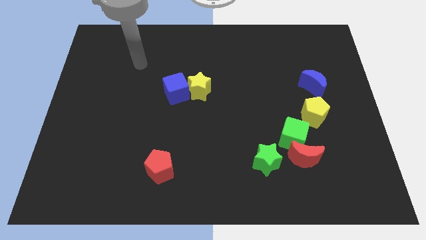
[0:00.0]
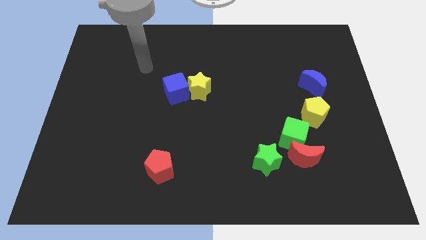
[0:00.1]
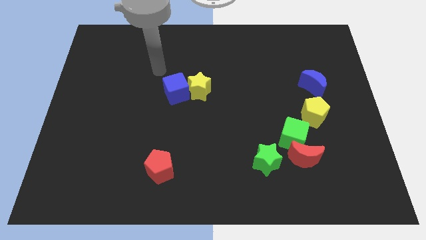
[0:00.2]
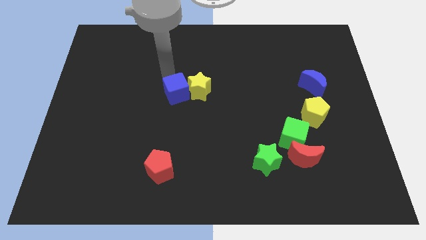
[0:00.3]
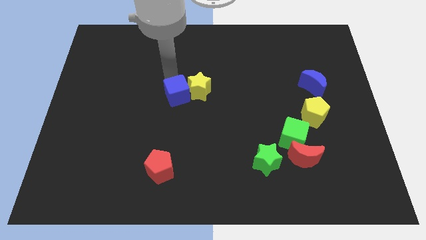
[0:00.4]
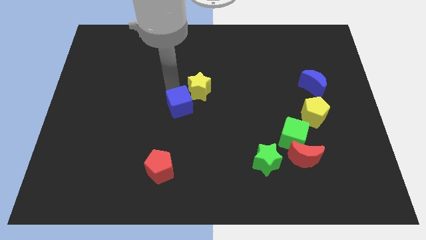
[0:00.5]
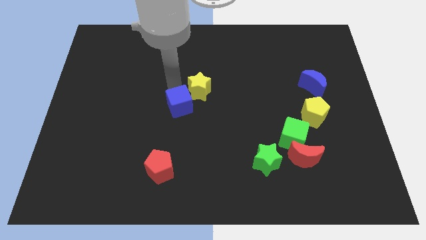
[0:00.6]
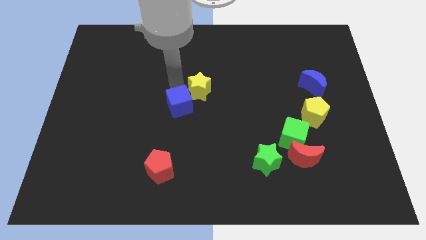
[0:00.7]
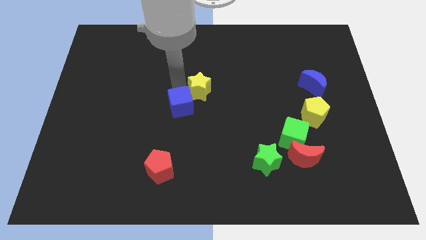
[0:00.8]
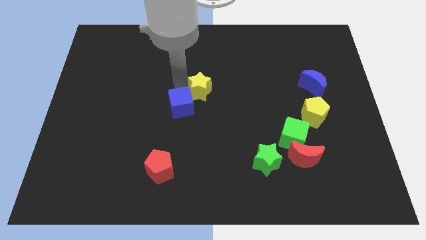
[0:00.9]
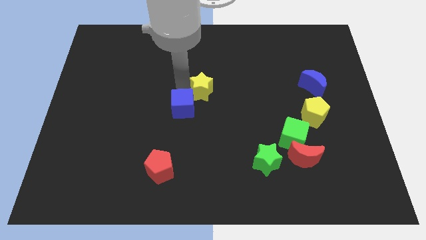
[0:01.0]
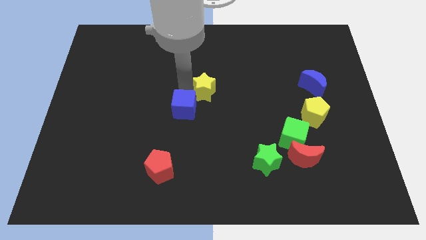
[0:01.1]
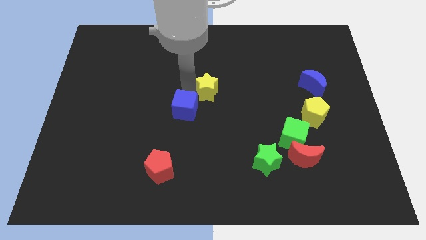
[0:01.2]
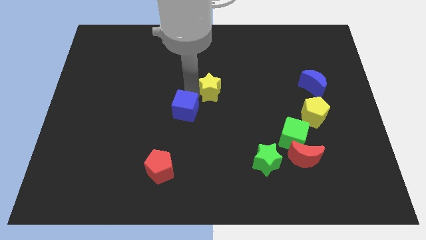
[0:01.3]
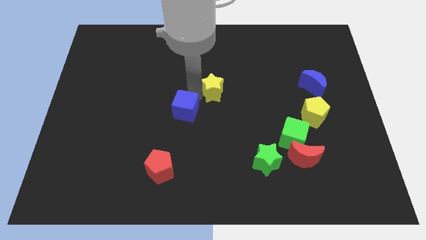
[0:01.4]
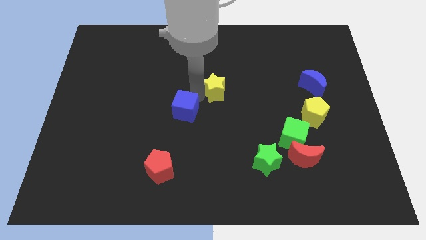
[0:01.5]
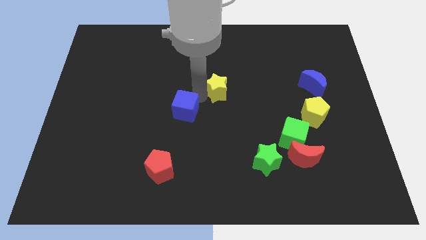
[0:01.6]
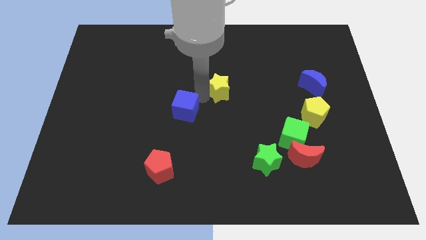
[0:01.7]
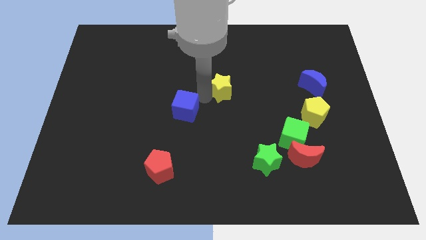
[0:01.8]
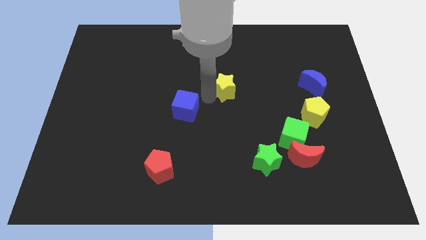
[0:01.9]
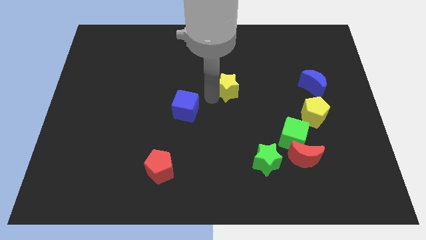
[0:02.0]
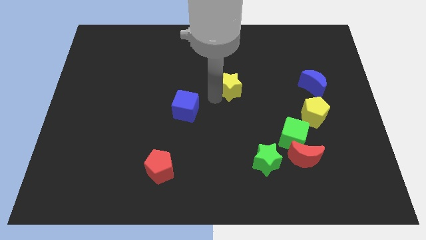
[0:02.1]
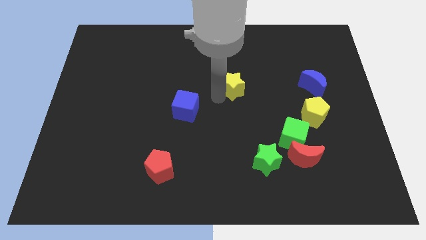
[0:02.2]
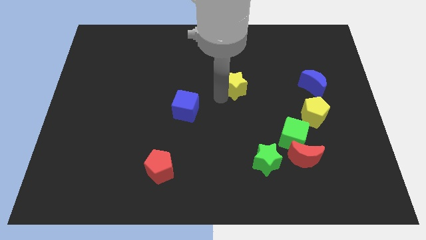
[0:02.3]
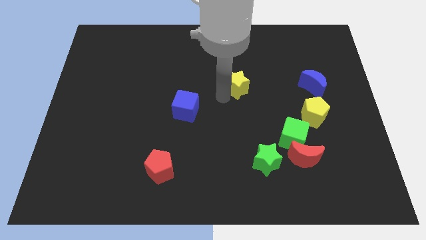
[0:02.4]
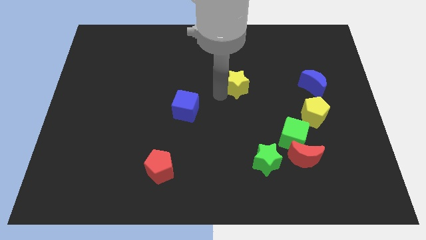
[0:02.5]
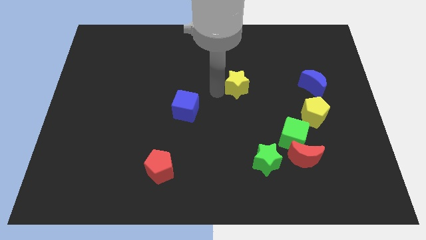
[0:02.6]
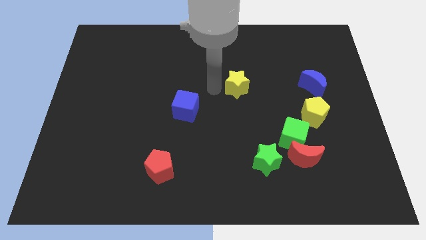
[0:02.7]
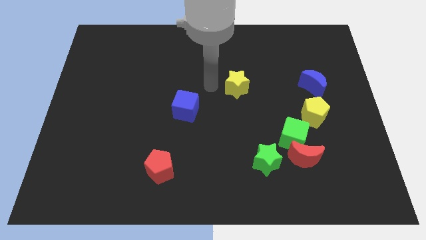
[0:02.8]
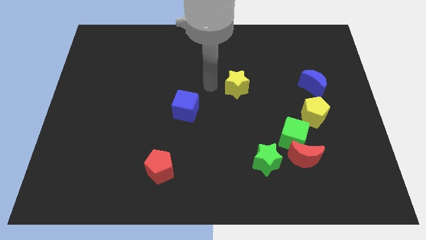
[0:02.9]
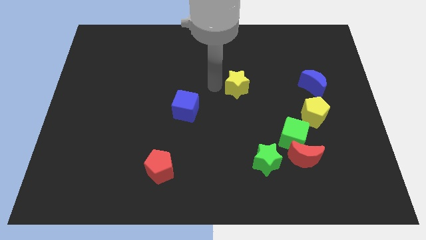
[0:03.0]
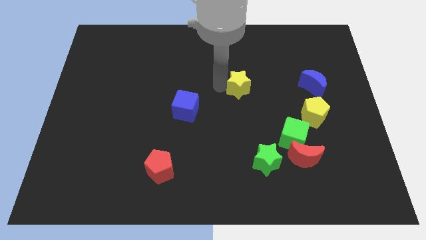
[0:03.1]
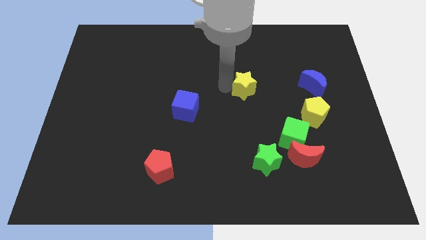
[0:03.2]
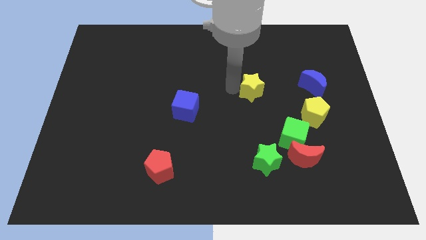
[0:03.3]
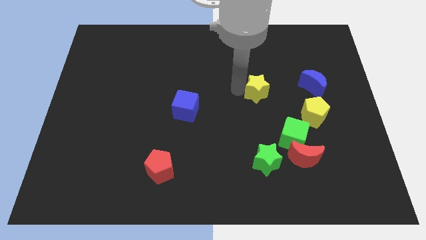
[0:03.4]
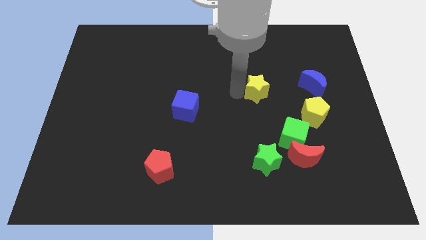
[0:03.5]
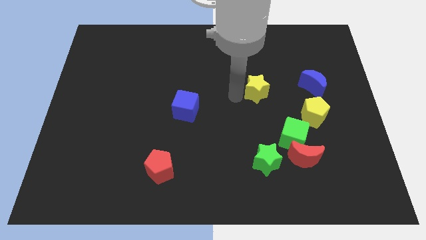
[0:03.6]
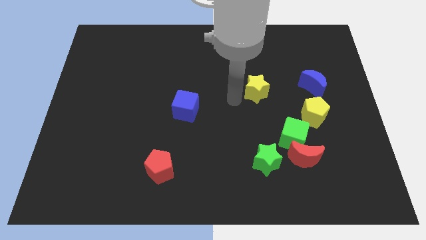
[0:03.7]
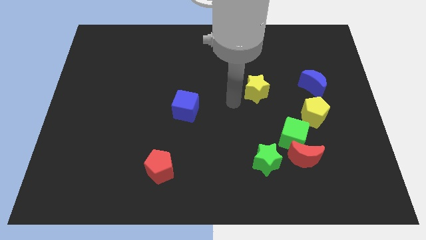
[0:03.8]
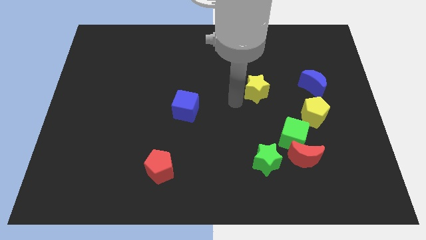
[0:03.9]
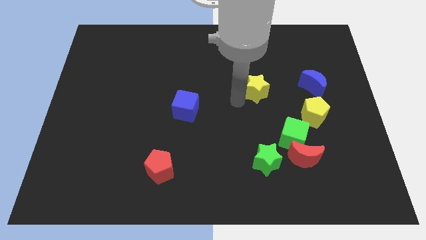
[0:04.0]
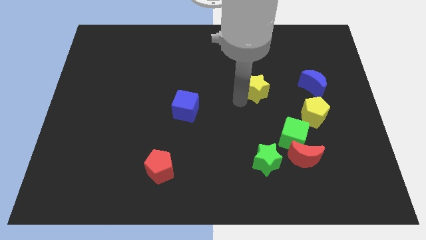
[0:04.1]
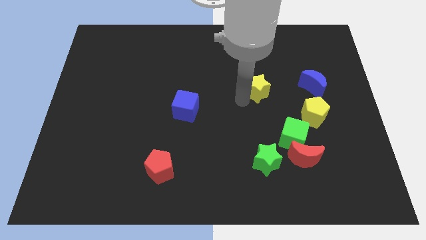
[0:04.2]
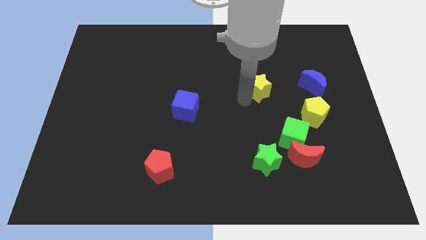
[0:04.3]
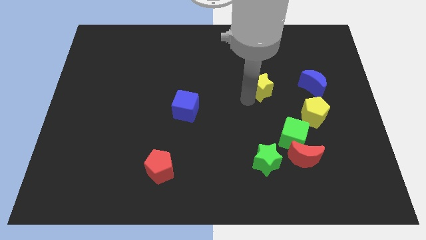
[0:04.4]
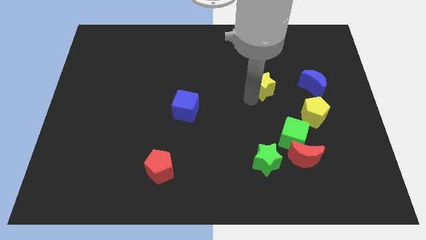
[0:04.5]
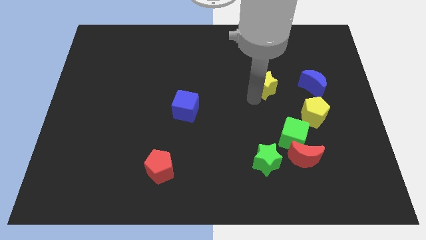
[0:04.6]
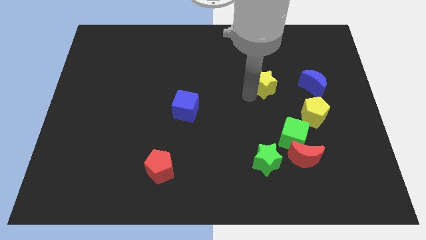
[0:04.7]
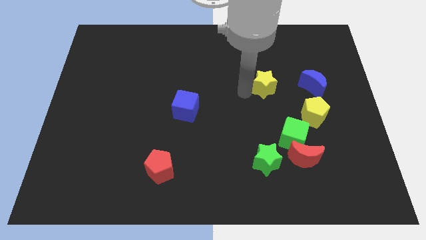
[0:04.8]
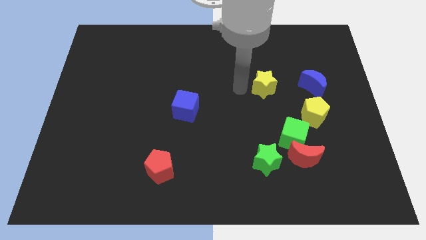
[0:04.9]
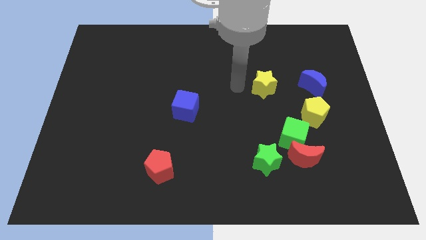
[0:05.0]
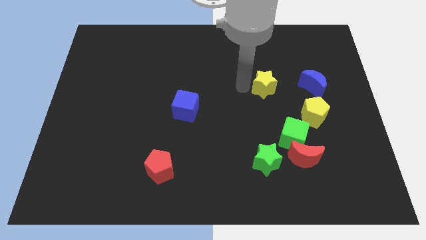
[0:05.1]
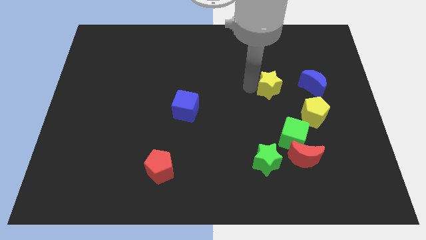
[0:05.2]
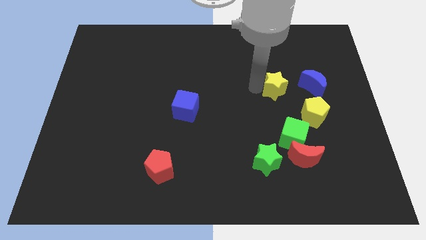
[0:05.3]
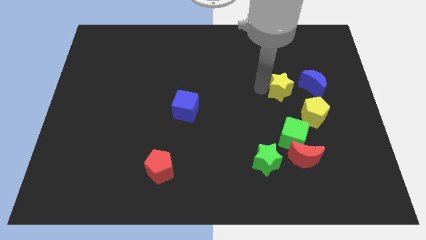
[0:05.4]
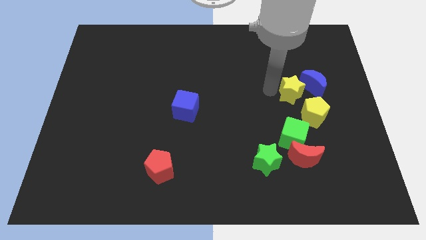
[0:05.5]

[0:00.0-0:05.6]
slide the yellow star towards the blue moon

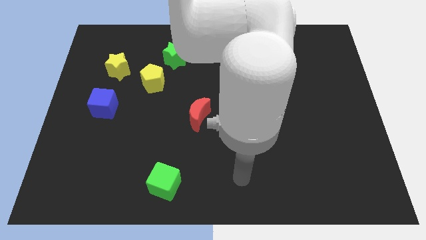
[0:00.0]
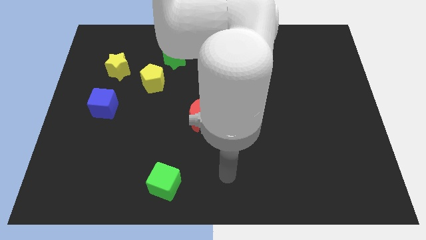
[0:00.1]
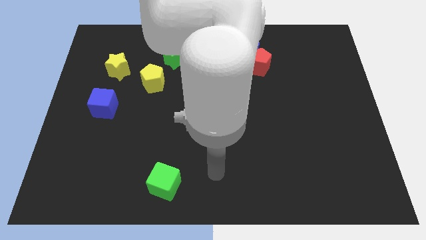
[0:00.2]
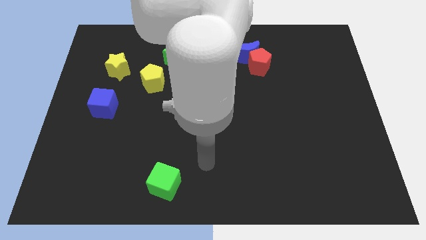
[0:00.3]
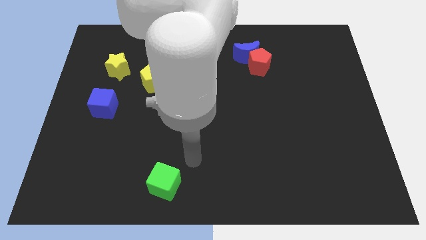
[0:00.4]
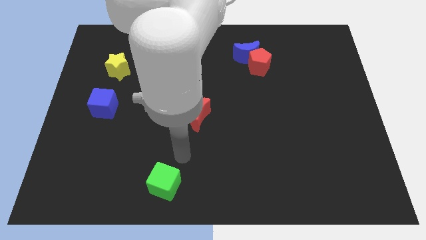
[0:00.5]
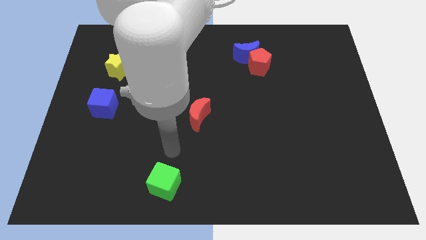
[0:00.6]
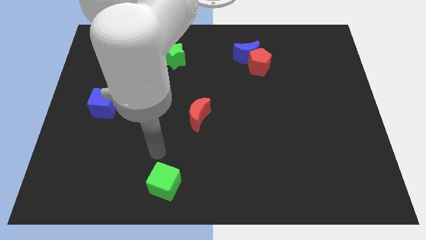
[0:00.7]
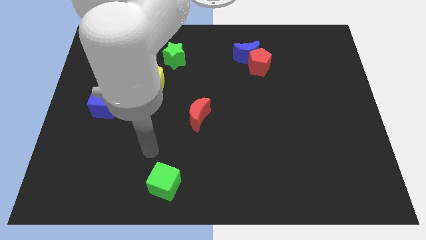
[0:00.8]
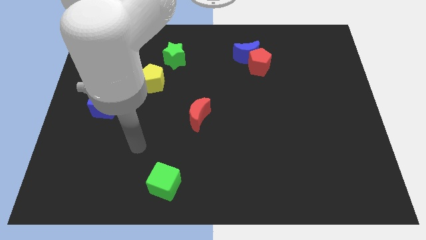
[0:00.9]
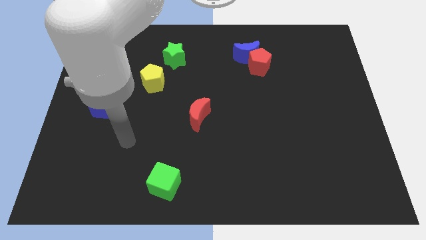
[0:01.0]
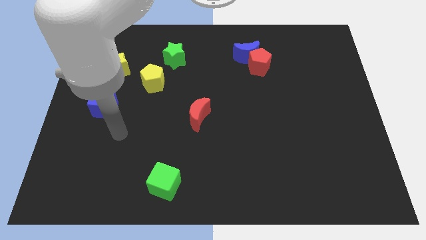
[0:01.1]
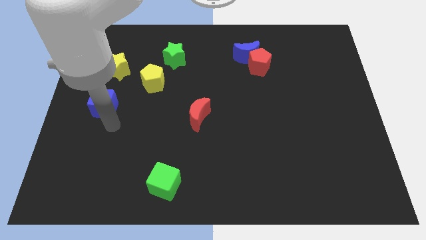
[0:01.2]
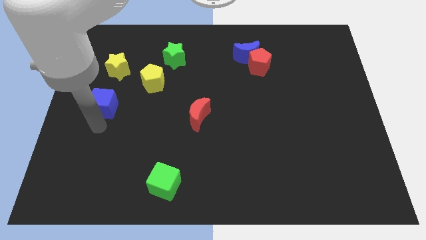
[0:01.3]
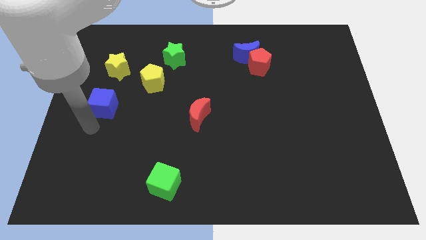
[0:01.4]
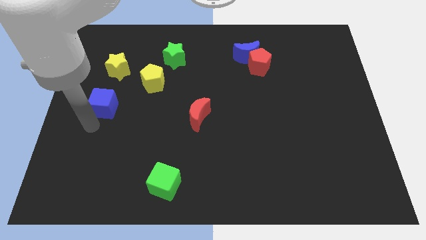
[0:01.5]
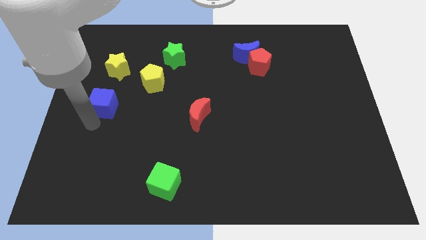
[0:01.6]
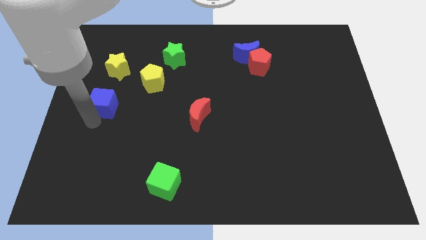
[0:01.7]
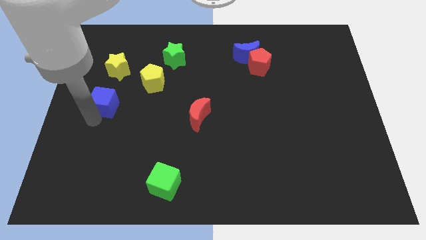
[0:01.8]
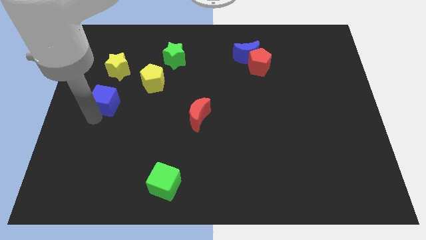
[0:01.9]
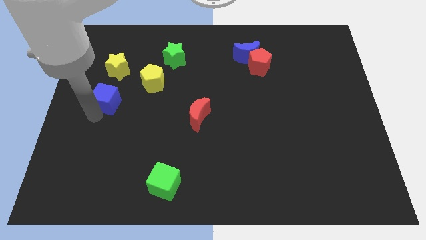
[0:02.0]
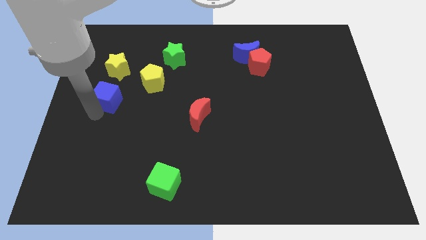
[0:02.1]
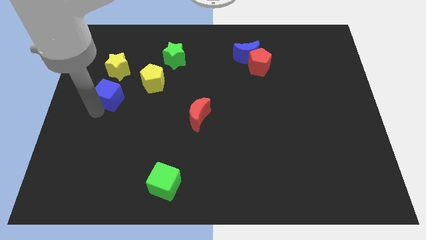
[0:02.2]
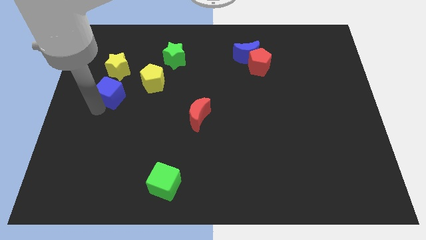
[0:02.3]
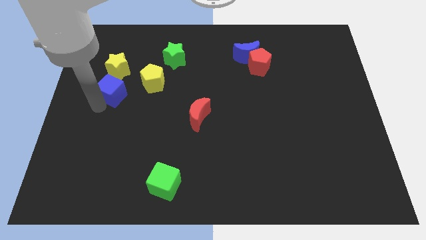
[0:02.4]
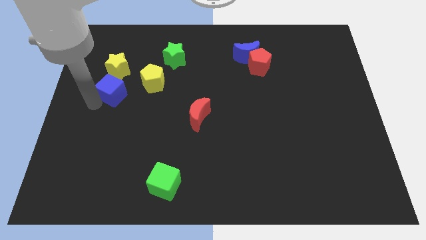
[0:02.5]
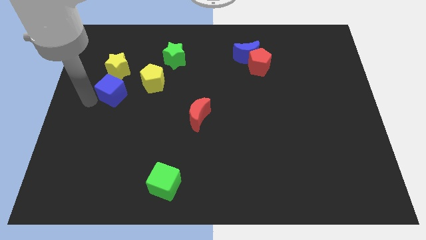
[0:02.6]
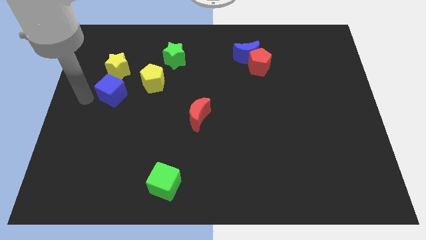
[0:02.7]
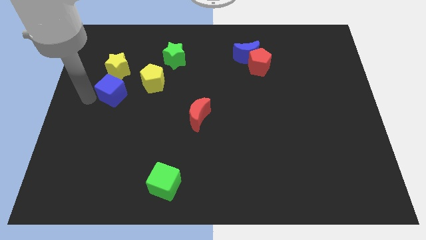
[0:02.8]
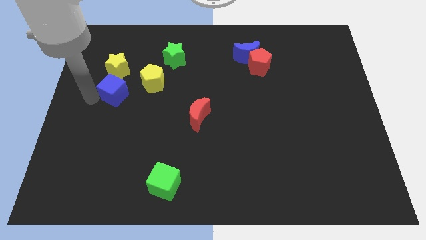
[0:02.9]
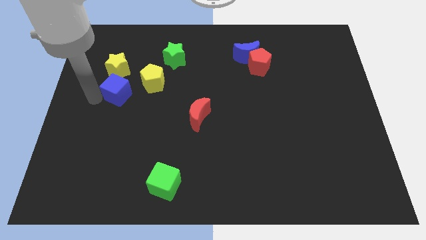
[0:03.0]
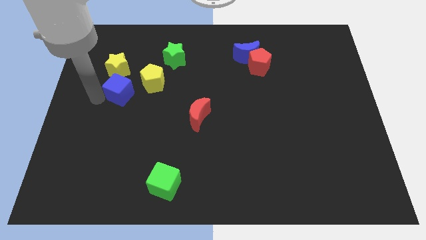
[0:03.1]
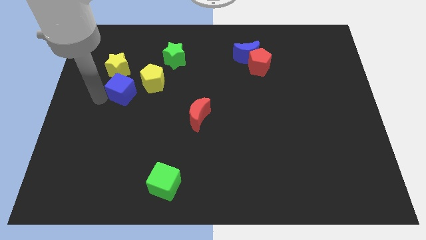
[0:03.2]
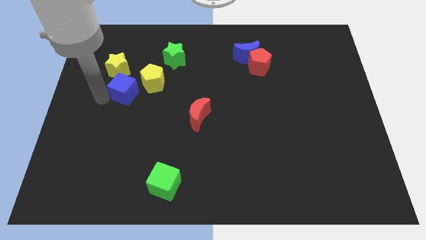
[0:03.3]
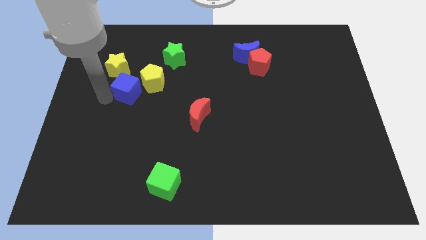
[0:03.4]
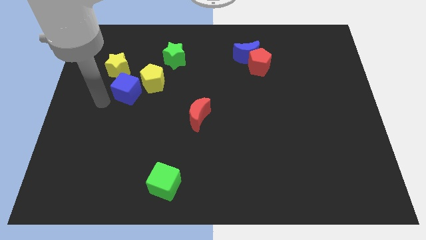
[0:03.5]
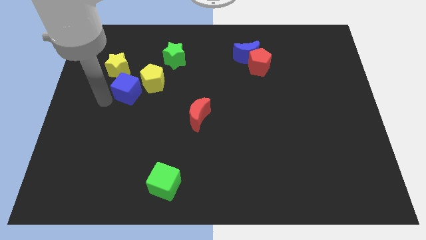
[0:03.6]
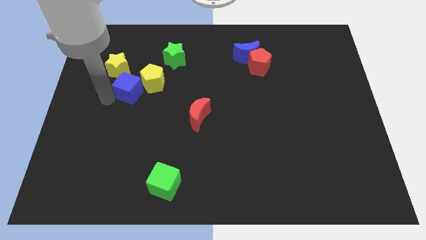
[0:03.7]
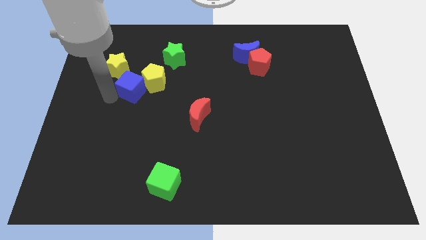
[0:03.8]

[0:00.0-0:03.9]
put the blue cube towards the yellow pentagon
